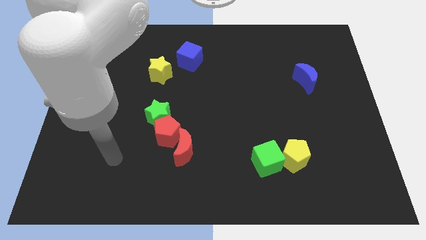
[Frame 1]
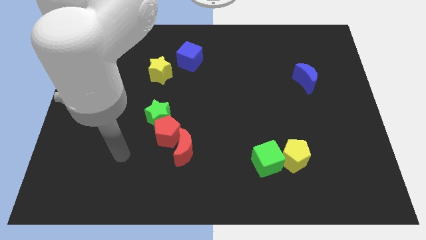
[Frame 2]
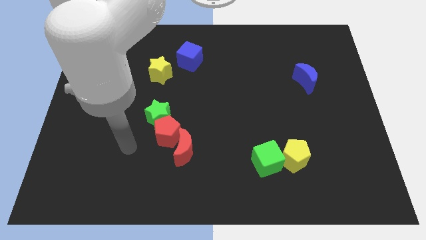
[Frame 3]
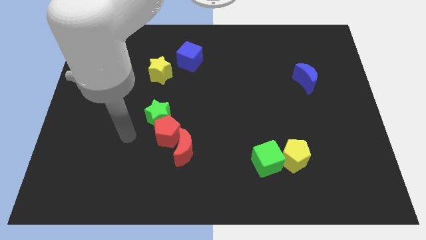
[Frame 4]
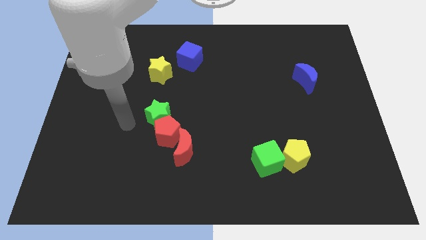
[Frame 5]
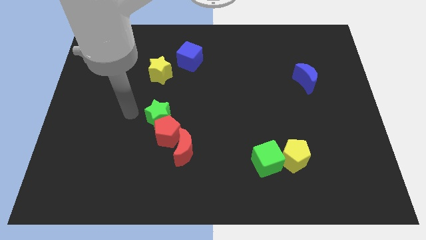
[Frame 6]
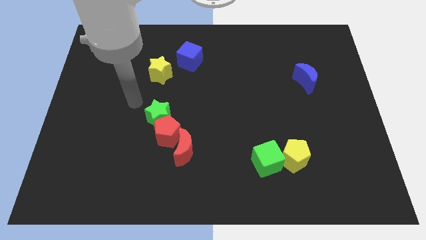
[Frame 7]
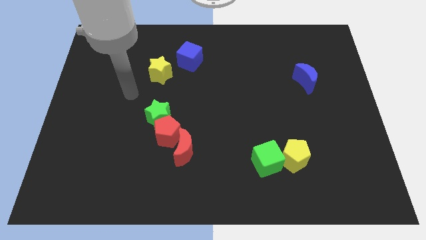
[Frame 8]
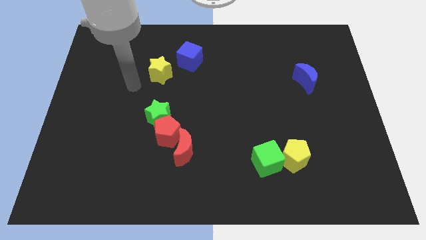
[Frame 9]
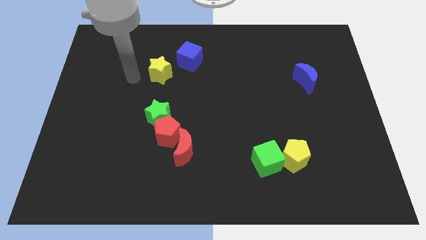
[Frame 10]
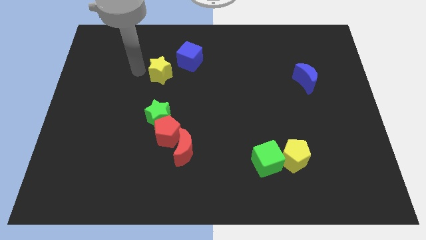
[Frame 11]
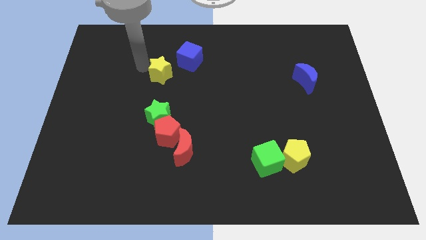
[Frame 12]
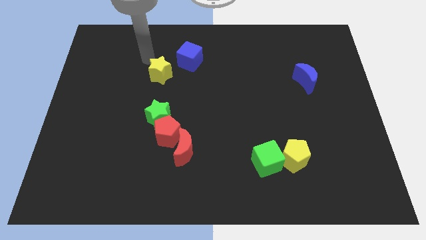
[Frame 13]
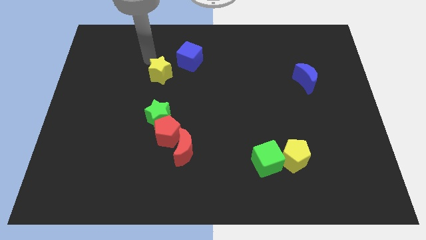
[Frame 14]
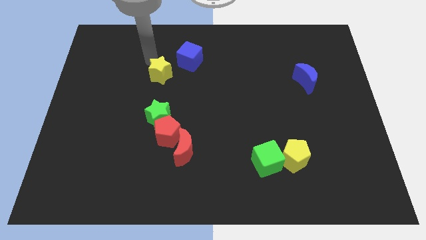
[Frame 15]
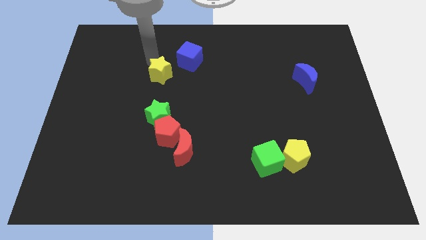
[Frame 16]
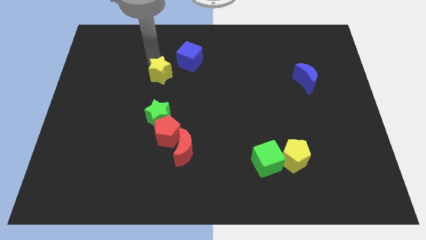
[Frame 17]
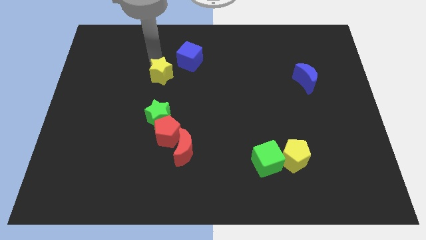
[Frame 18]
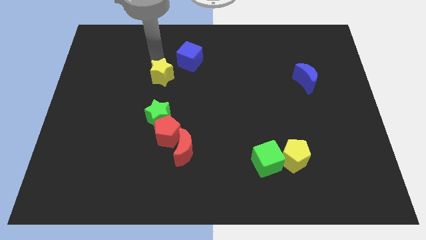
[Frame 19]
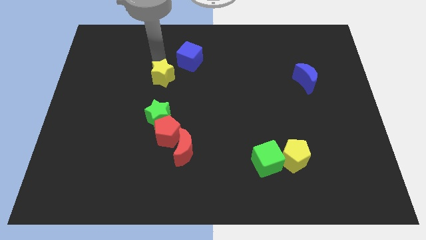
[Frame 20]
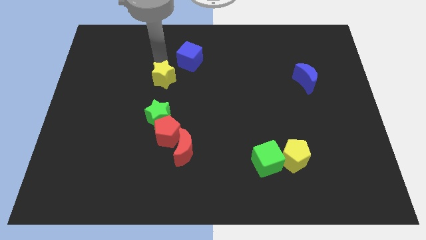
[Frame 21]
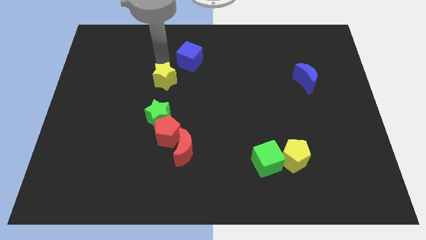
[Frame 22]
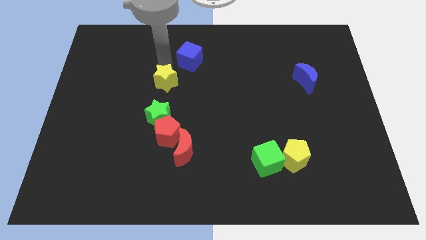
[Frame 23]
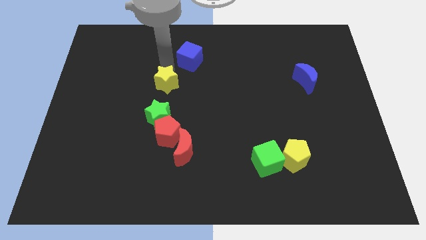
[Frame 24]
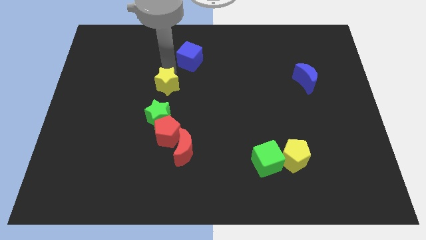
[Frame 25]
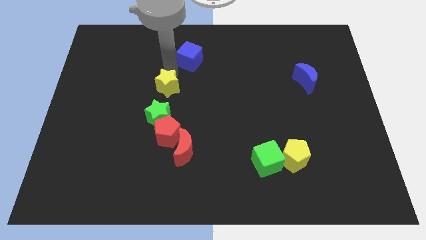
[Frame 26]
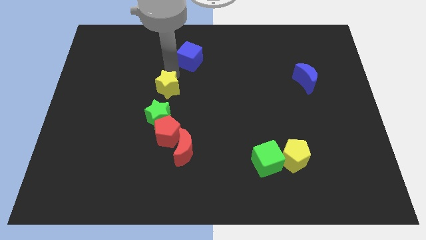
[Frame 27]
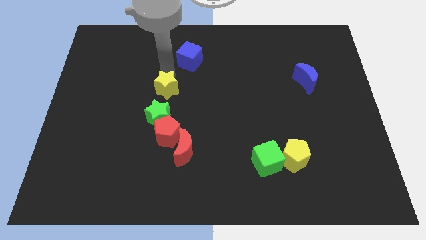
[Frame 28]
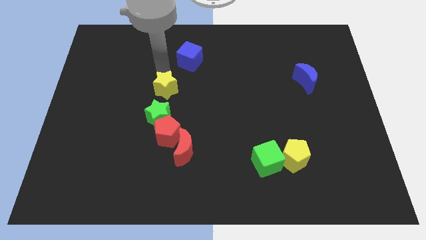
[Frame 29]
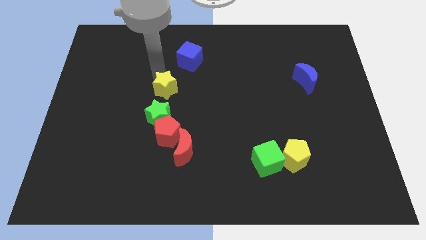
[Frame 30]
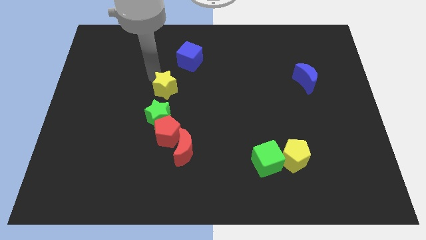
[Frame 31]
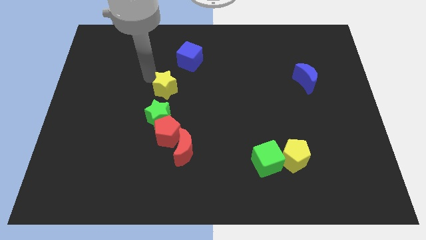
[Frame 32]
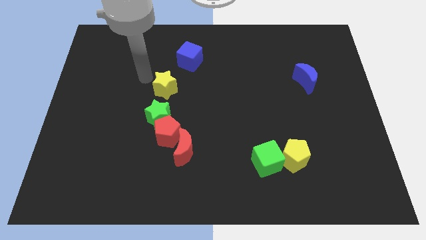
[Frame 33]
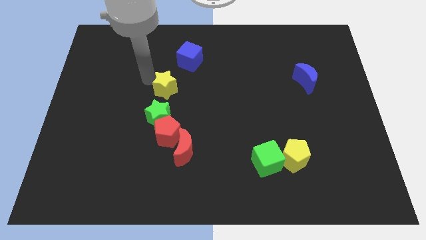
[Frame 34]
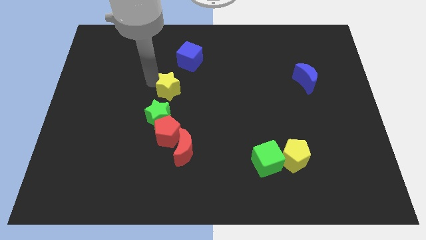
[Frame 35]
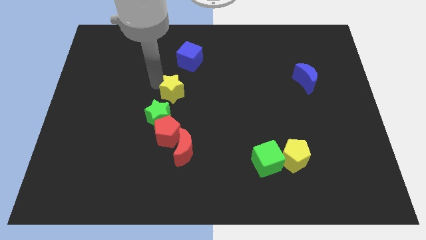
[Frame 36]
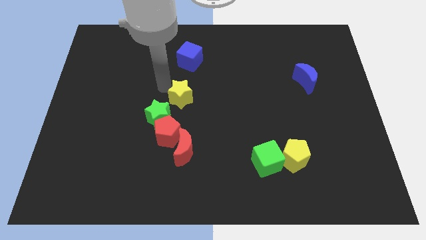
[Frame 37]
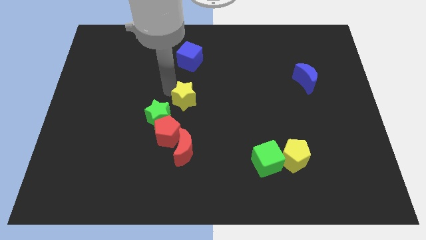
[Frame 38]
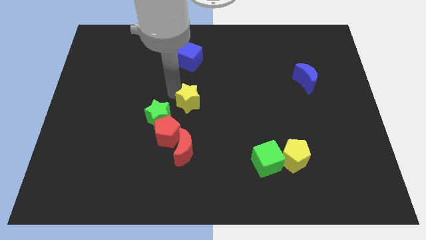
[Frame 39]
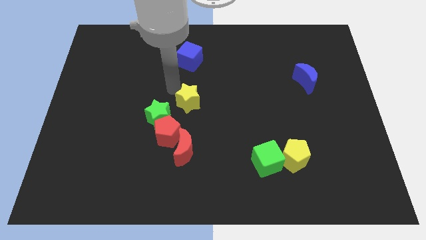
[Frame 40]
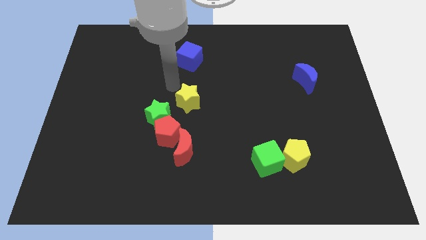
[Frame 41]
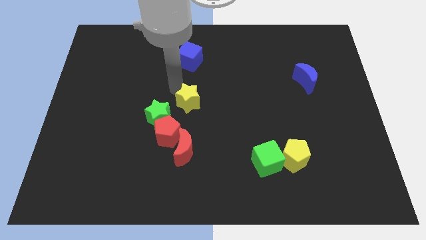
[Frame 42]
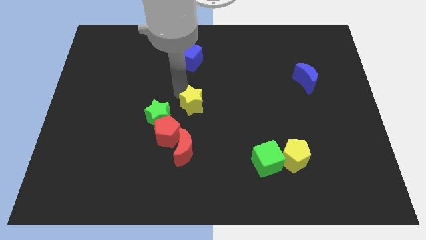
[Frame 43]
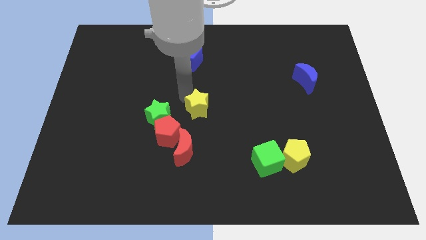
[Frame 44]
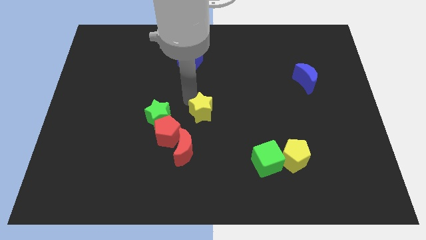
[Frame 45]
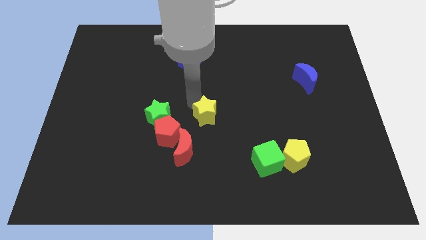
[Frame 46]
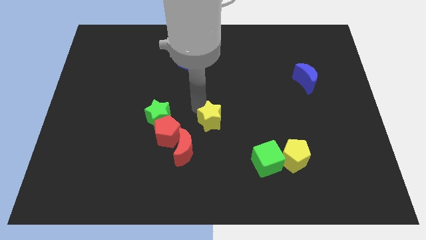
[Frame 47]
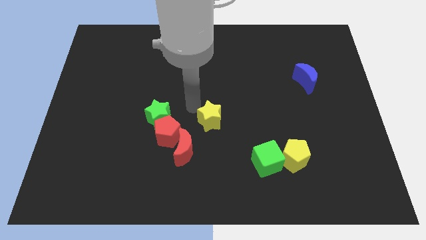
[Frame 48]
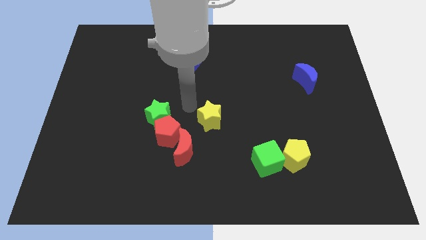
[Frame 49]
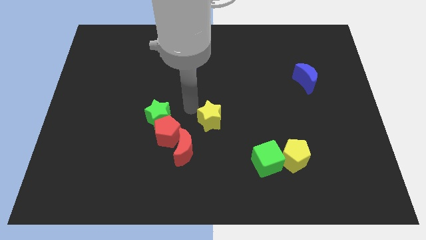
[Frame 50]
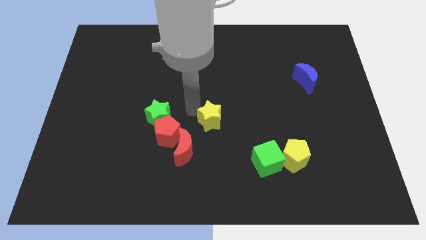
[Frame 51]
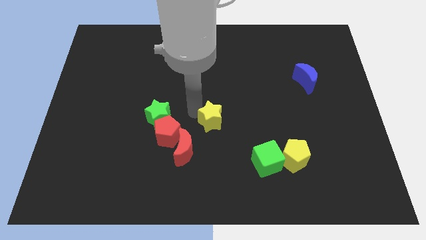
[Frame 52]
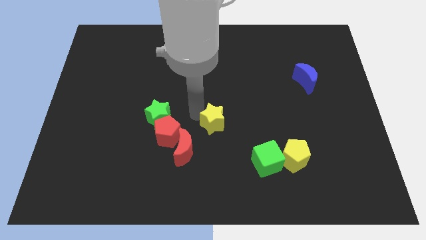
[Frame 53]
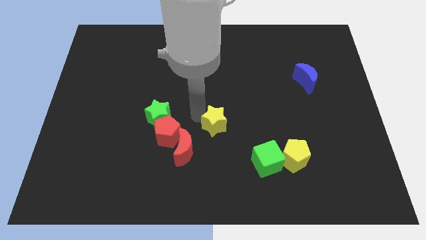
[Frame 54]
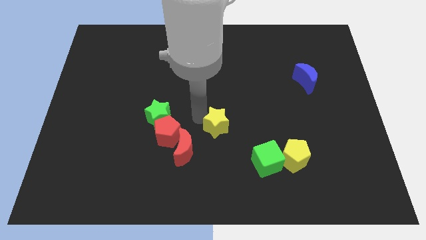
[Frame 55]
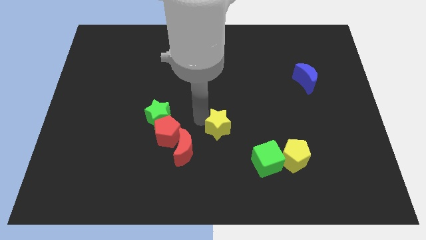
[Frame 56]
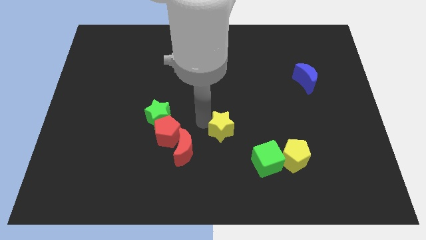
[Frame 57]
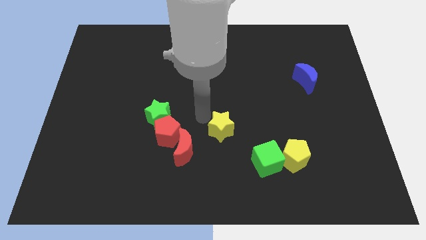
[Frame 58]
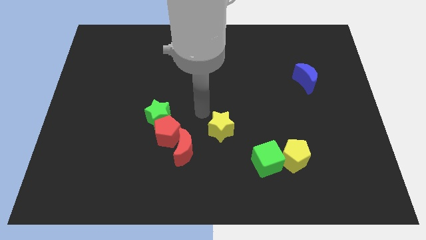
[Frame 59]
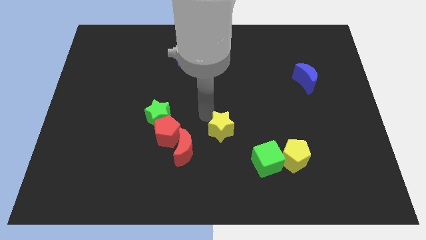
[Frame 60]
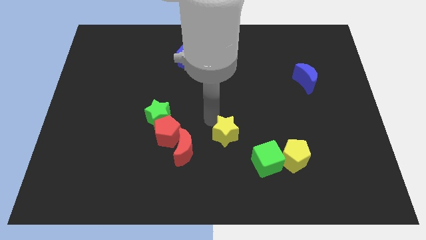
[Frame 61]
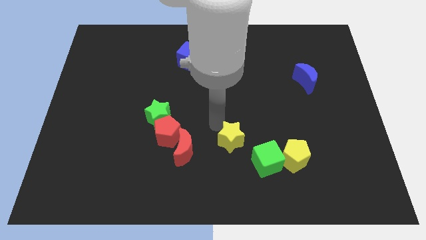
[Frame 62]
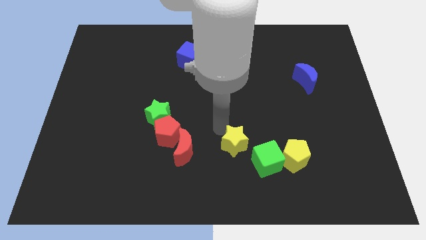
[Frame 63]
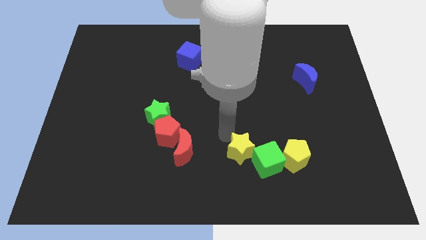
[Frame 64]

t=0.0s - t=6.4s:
push the yellow star to the green cube

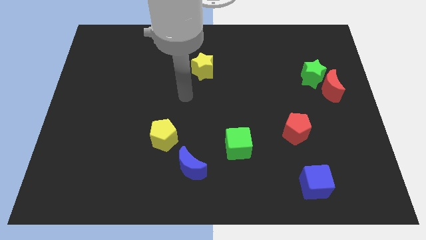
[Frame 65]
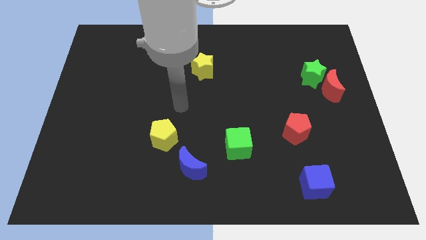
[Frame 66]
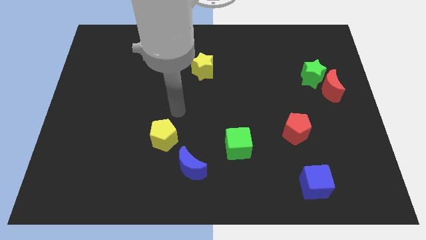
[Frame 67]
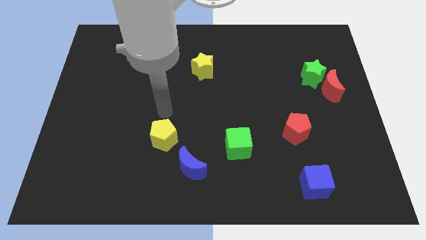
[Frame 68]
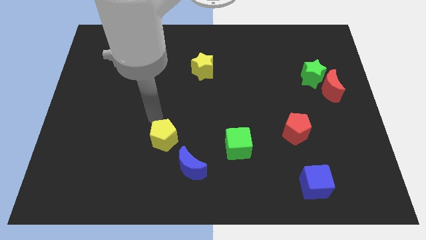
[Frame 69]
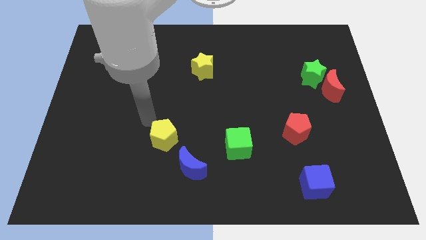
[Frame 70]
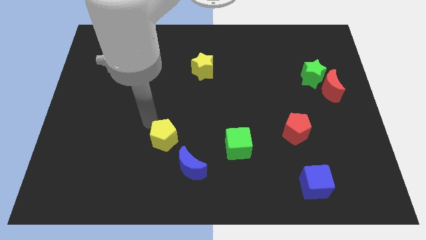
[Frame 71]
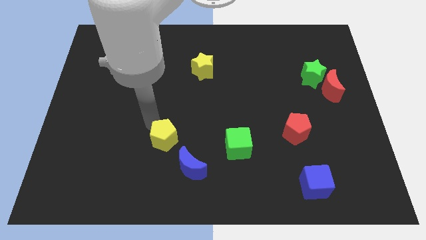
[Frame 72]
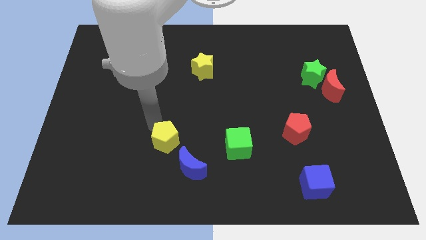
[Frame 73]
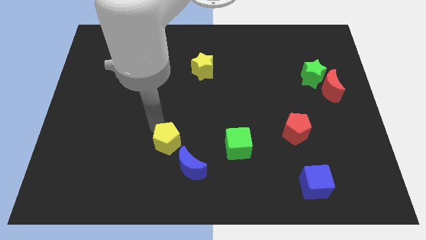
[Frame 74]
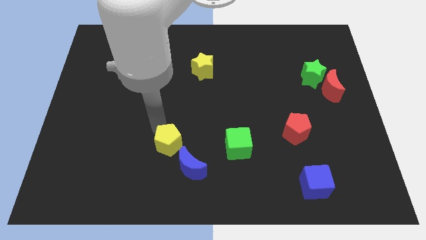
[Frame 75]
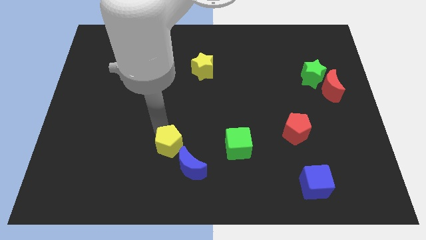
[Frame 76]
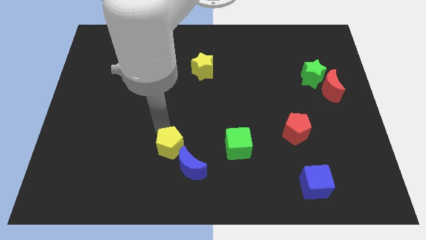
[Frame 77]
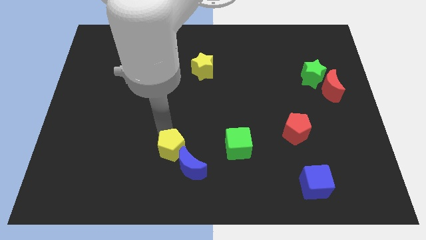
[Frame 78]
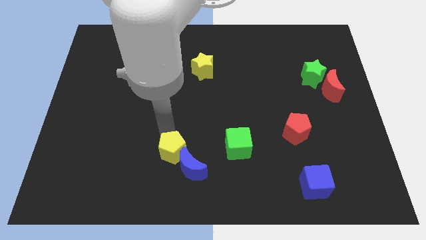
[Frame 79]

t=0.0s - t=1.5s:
push the yellow pentagon close to the blue moon
